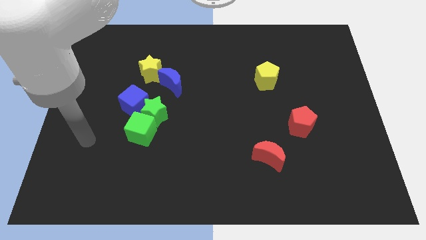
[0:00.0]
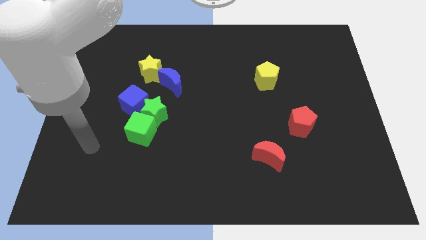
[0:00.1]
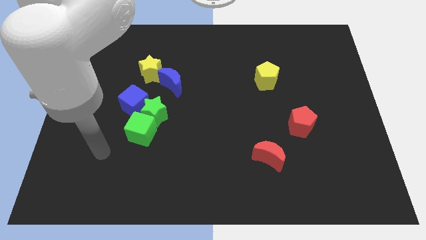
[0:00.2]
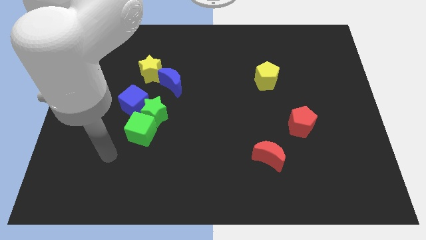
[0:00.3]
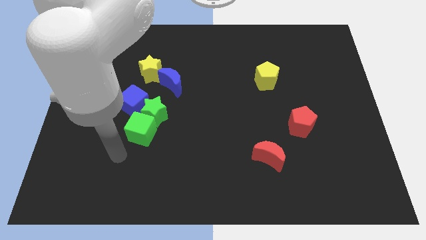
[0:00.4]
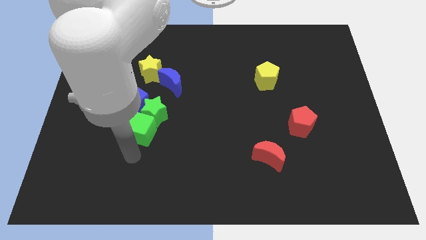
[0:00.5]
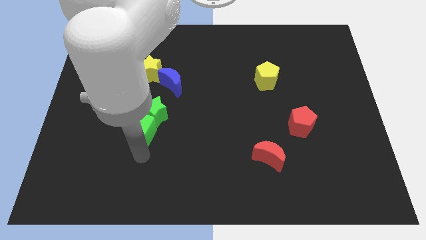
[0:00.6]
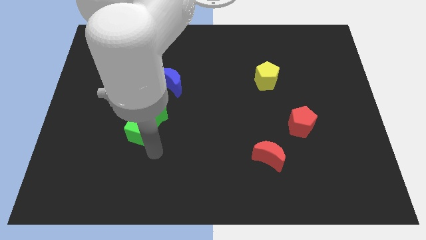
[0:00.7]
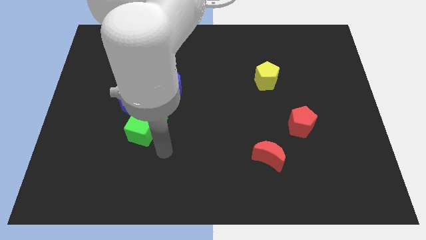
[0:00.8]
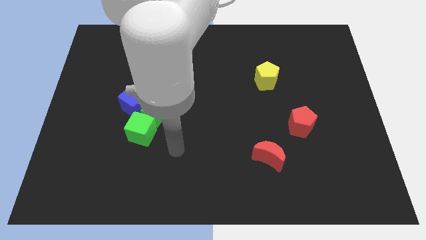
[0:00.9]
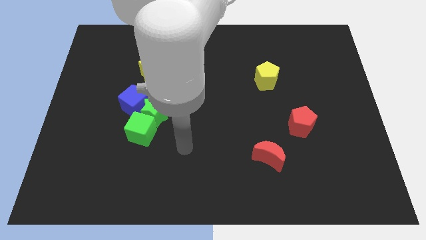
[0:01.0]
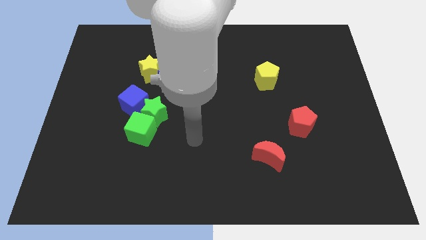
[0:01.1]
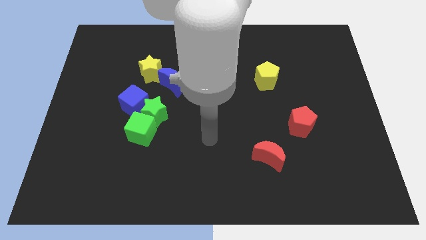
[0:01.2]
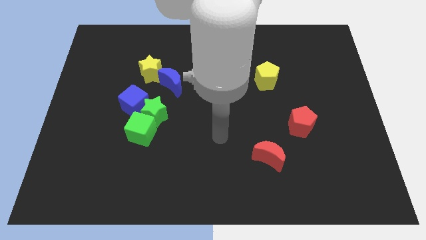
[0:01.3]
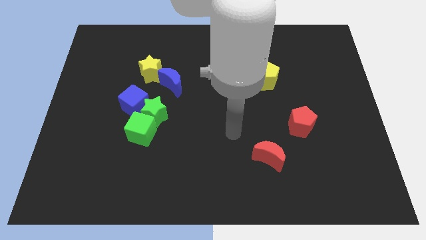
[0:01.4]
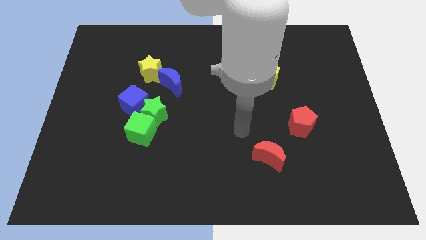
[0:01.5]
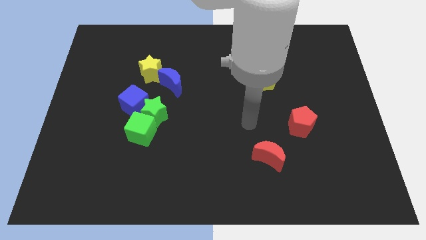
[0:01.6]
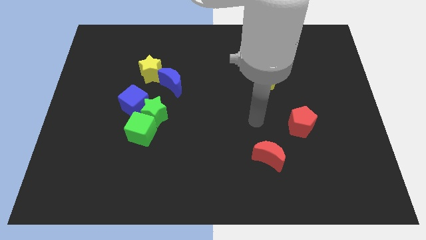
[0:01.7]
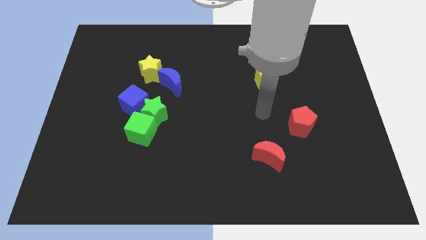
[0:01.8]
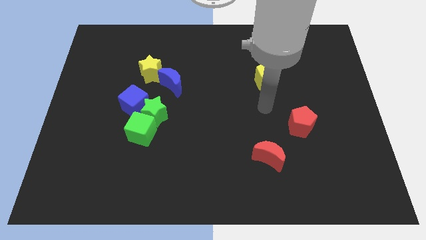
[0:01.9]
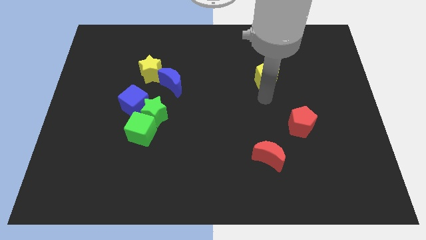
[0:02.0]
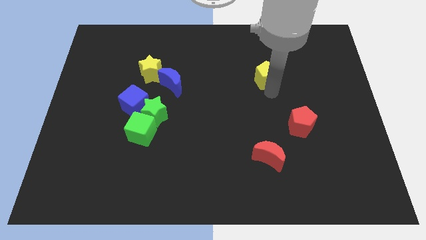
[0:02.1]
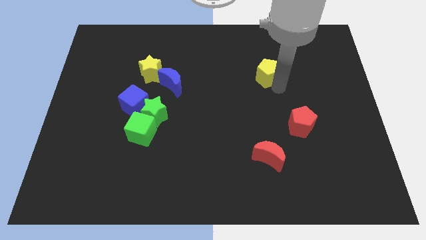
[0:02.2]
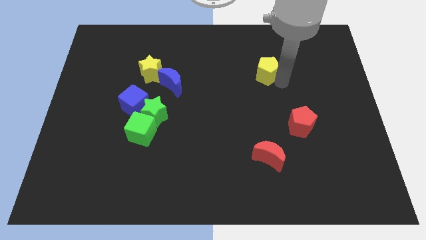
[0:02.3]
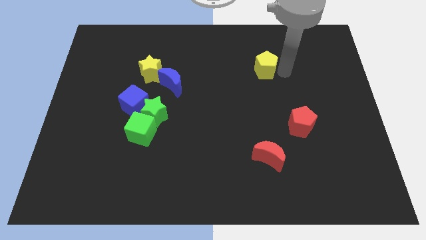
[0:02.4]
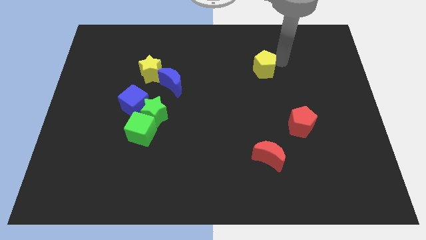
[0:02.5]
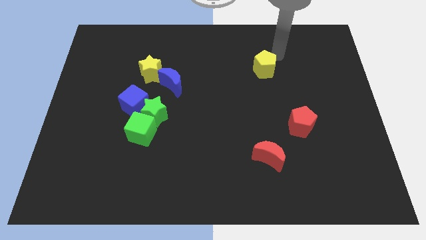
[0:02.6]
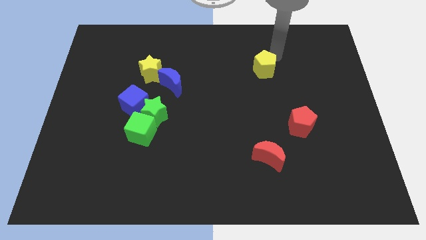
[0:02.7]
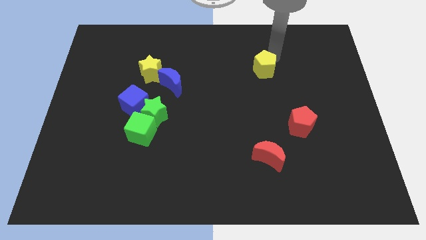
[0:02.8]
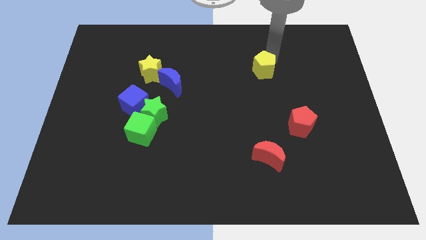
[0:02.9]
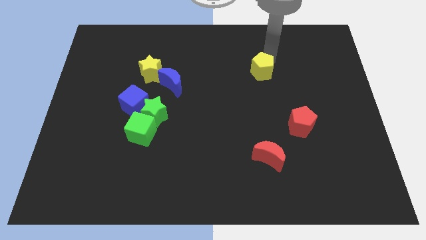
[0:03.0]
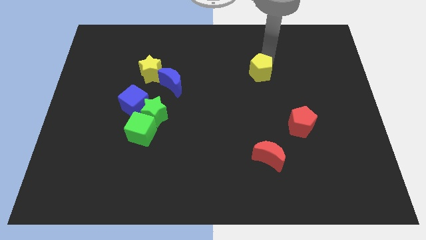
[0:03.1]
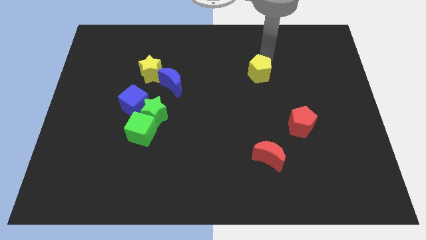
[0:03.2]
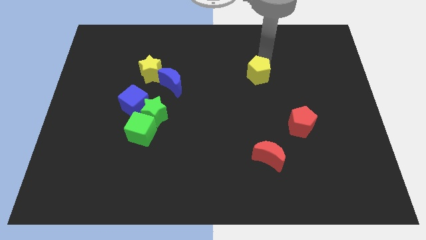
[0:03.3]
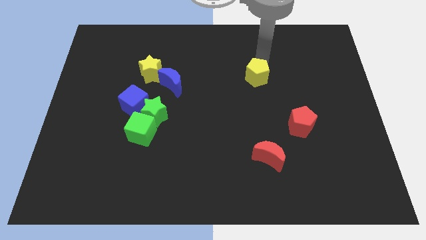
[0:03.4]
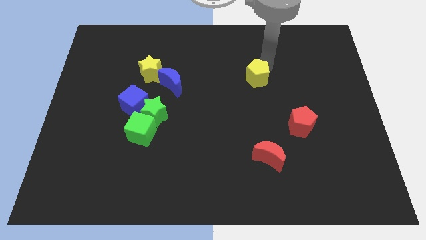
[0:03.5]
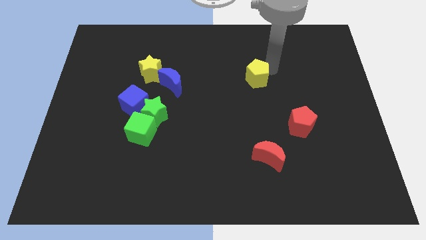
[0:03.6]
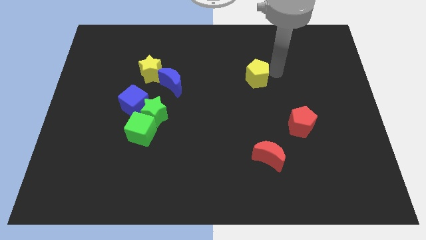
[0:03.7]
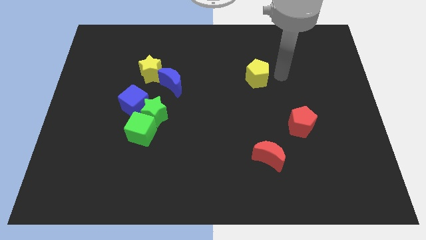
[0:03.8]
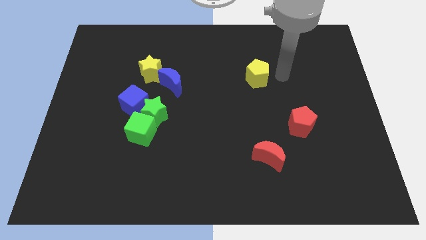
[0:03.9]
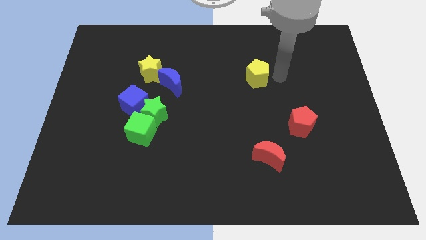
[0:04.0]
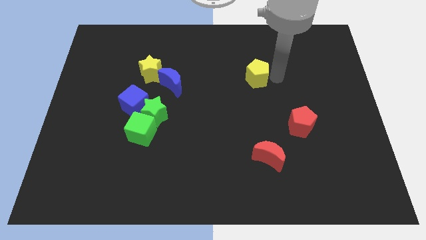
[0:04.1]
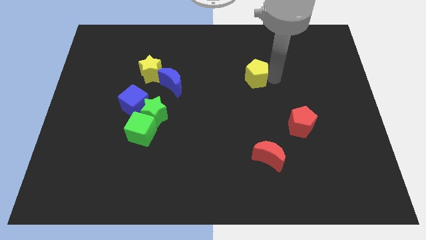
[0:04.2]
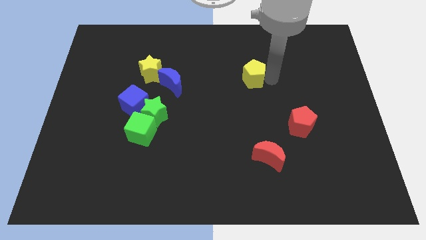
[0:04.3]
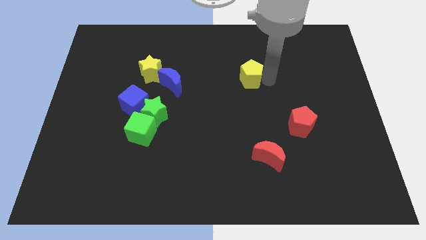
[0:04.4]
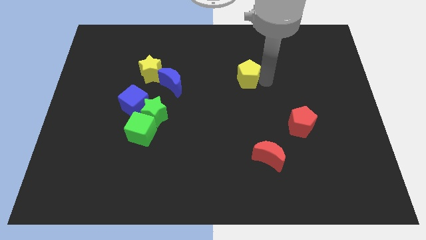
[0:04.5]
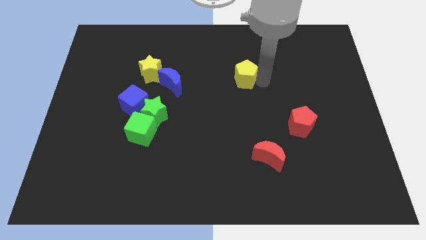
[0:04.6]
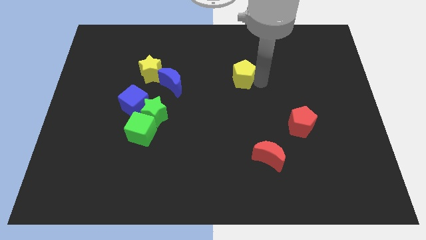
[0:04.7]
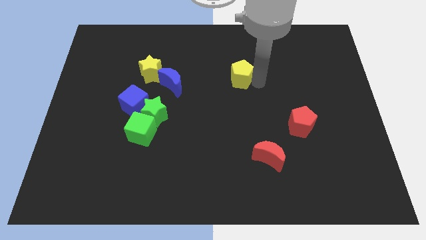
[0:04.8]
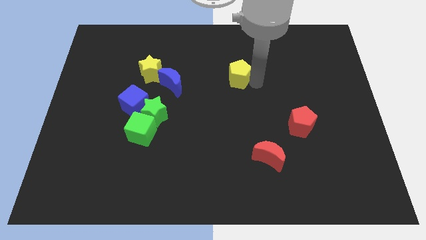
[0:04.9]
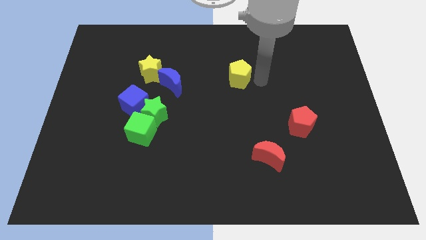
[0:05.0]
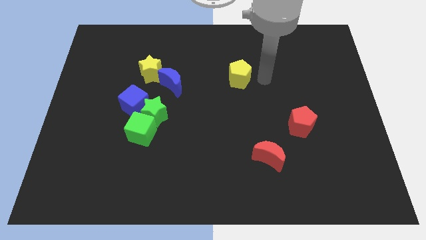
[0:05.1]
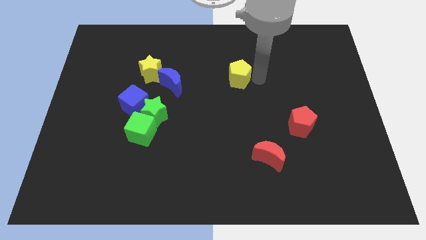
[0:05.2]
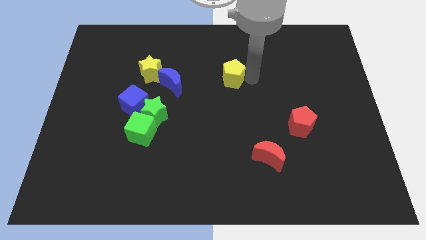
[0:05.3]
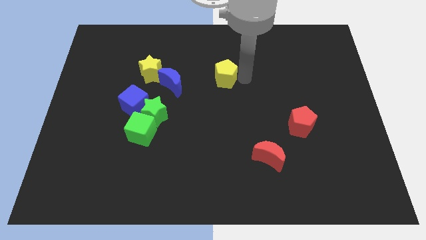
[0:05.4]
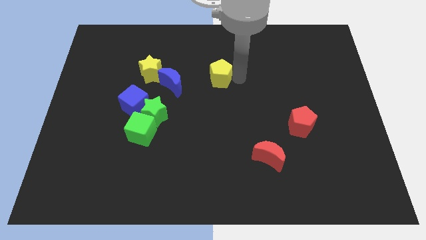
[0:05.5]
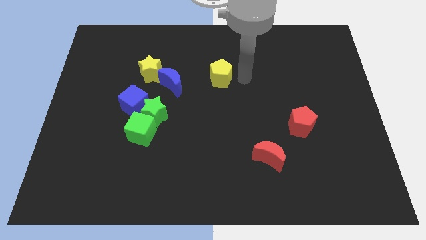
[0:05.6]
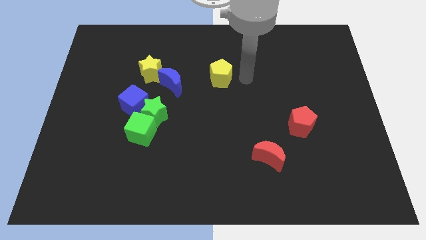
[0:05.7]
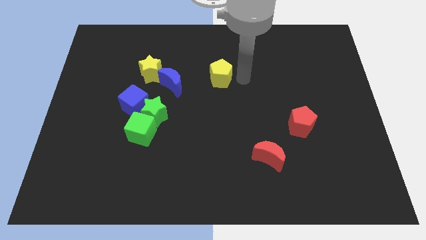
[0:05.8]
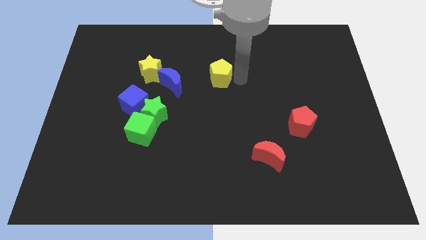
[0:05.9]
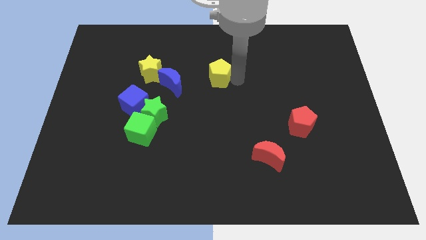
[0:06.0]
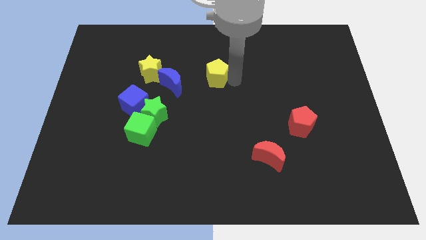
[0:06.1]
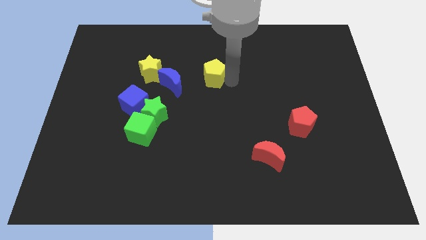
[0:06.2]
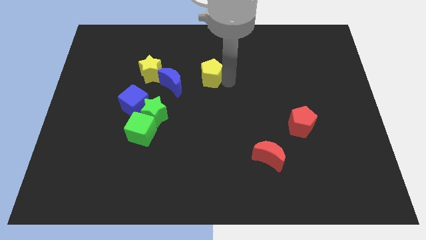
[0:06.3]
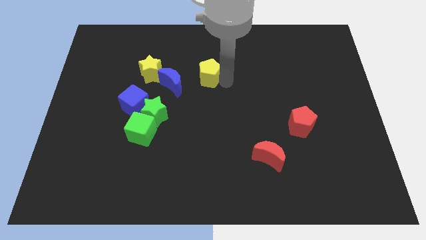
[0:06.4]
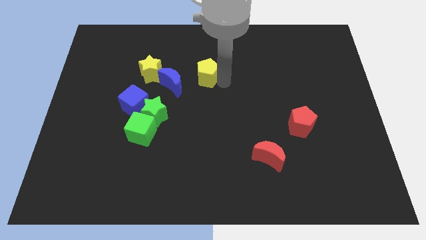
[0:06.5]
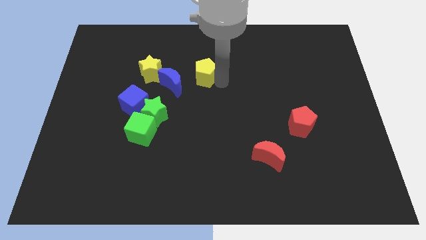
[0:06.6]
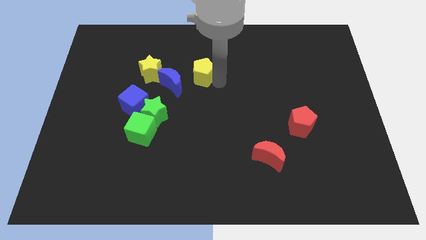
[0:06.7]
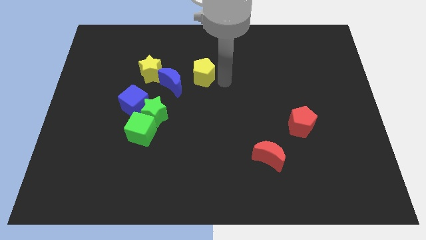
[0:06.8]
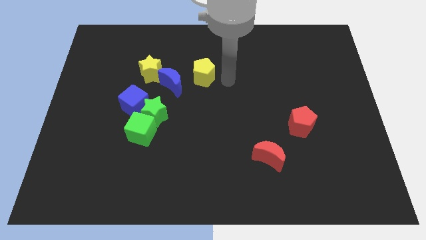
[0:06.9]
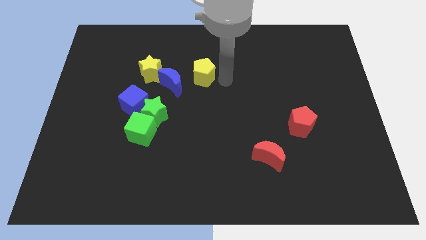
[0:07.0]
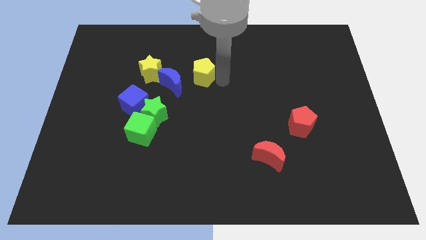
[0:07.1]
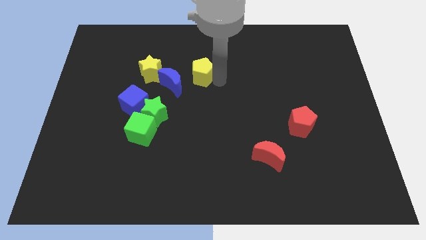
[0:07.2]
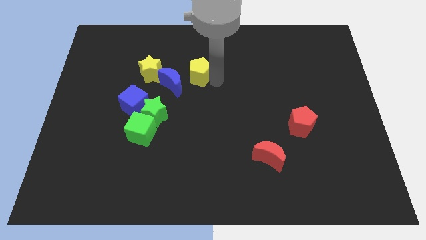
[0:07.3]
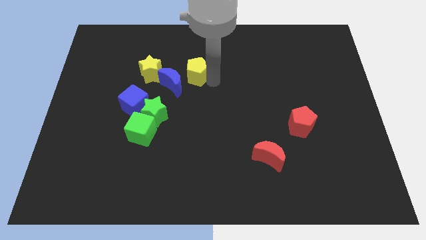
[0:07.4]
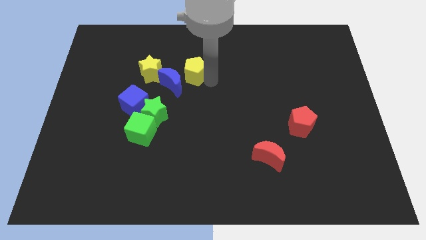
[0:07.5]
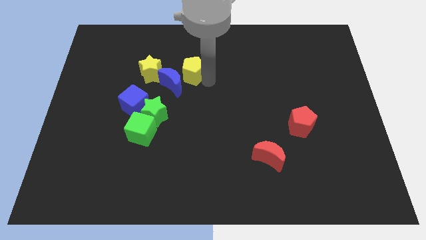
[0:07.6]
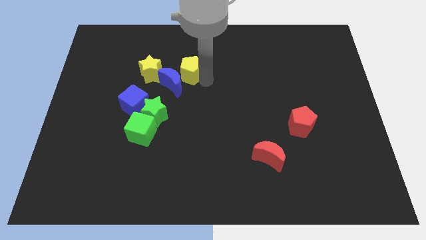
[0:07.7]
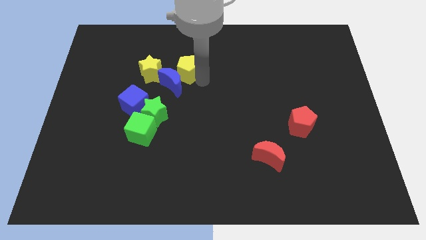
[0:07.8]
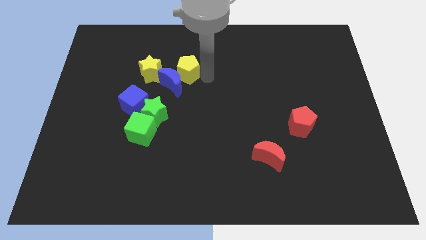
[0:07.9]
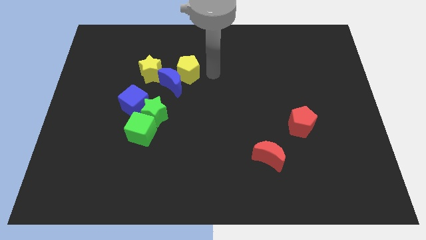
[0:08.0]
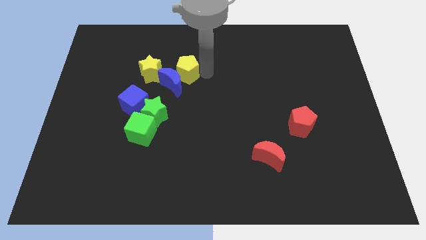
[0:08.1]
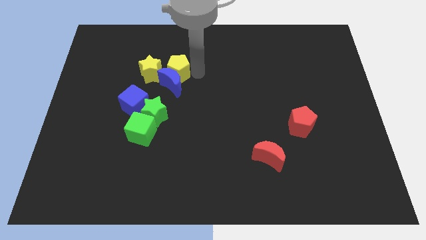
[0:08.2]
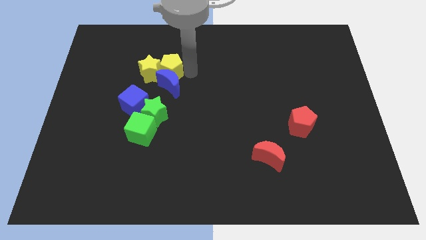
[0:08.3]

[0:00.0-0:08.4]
move the yellow pentagon close to the yellow star
